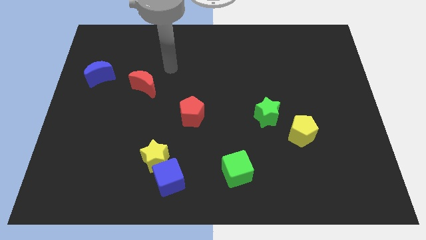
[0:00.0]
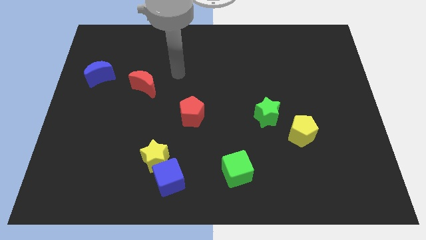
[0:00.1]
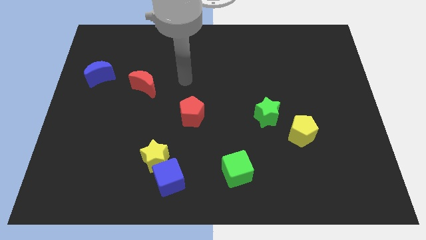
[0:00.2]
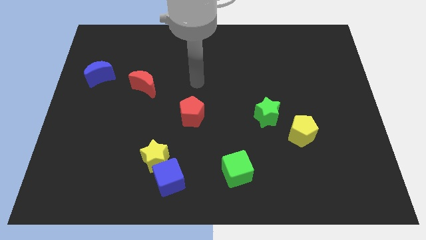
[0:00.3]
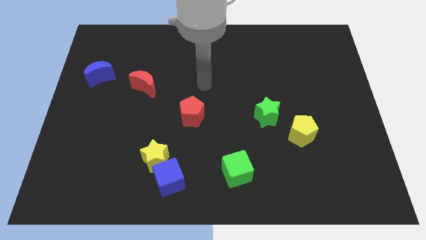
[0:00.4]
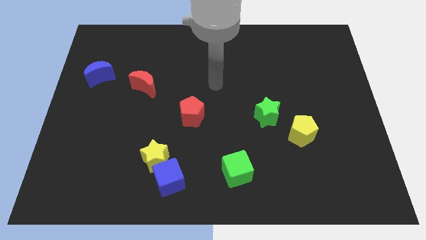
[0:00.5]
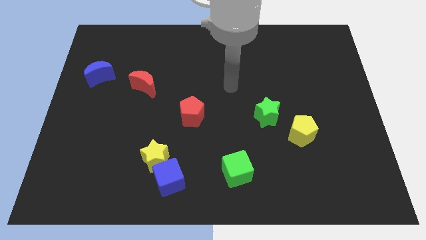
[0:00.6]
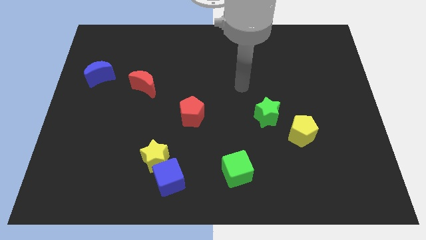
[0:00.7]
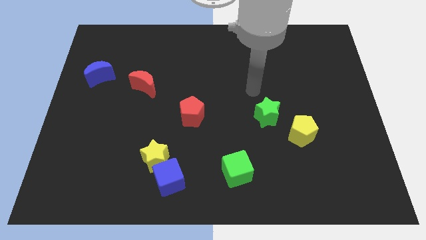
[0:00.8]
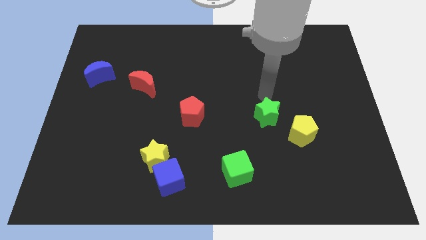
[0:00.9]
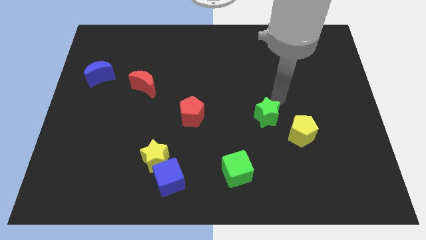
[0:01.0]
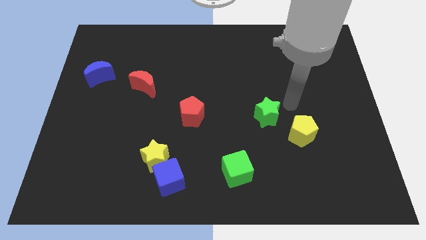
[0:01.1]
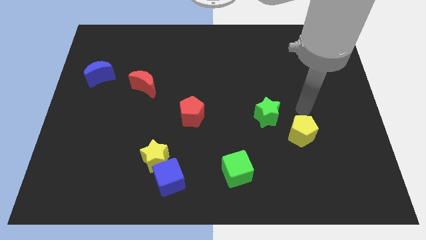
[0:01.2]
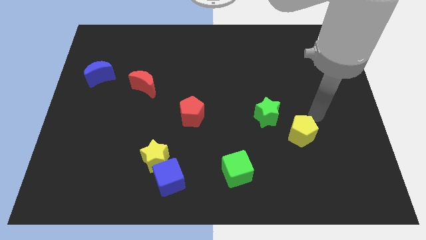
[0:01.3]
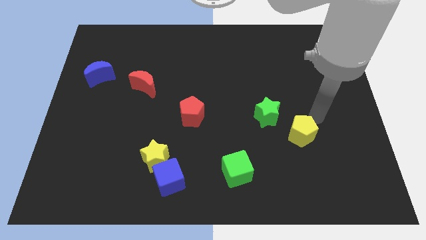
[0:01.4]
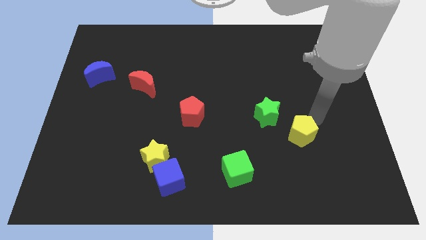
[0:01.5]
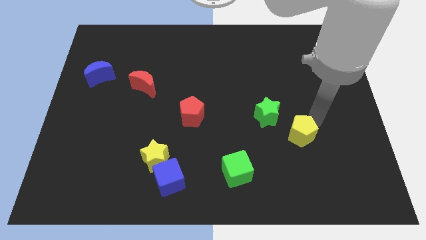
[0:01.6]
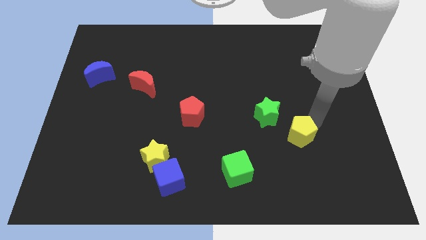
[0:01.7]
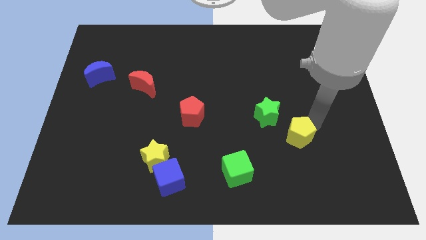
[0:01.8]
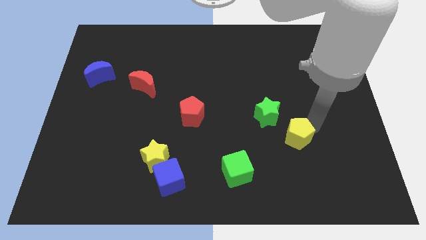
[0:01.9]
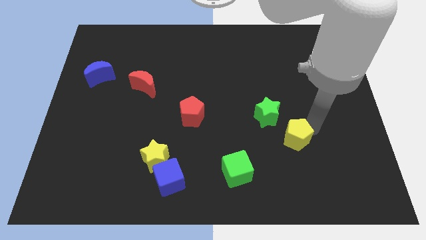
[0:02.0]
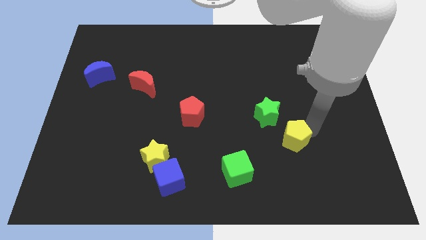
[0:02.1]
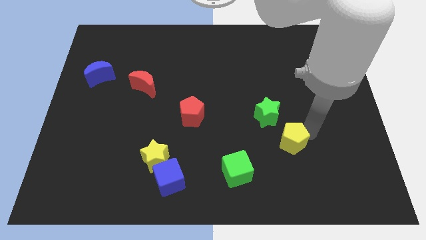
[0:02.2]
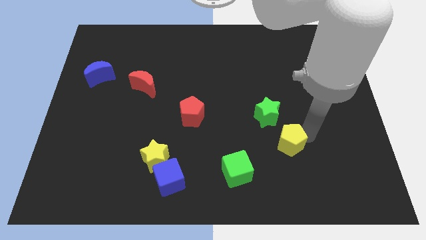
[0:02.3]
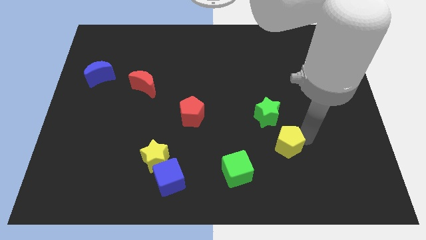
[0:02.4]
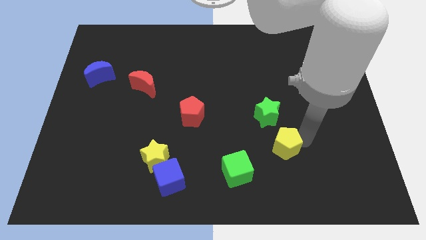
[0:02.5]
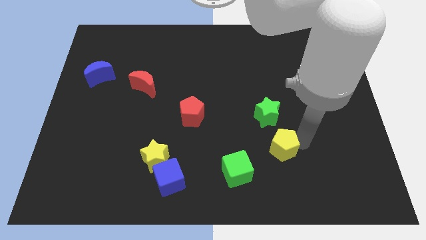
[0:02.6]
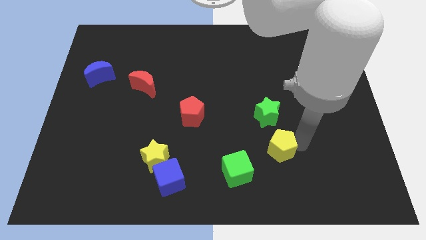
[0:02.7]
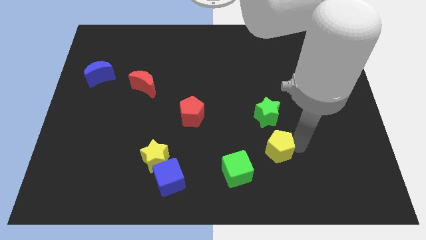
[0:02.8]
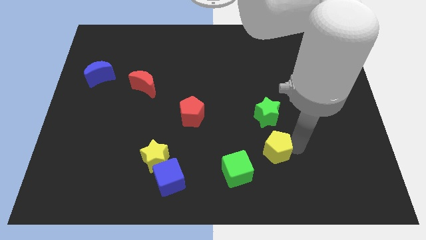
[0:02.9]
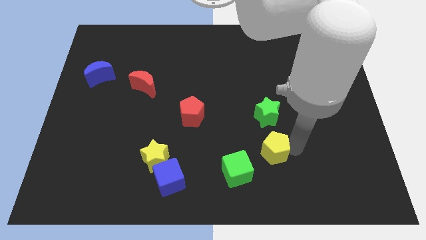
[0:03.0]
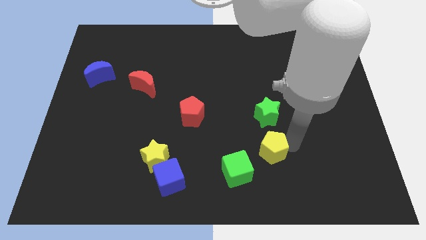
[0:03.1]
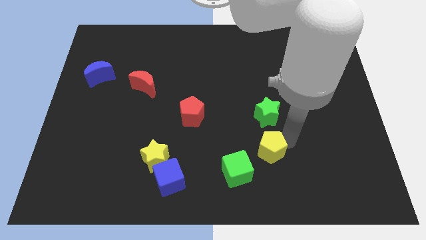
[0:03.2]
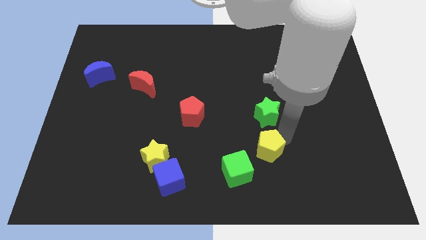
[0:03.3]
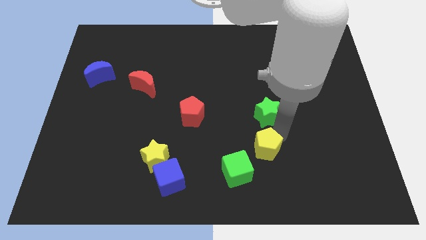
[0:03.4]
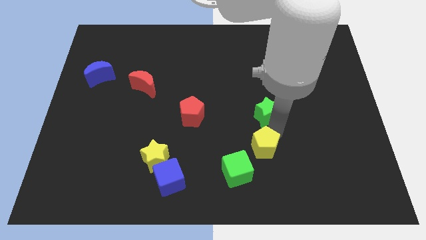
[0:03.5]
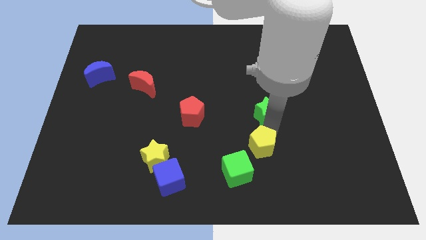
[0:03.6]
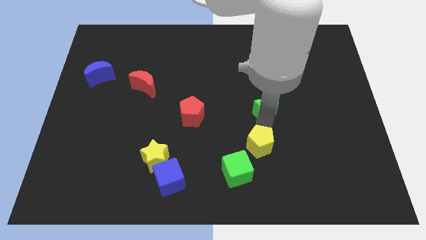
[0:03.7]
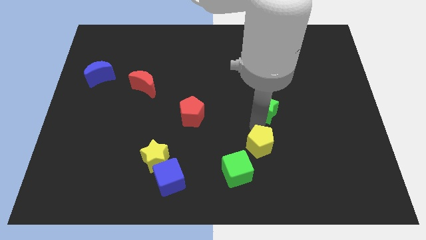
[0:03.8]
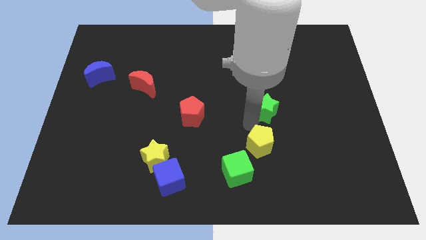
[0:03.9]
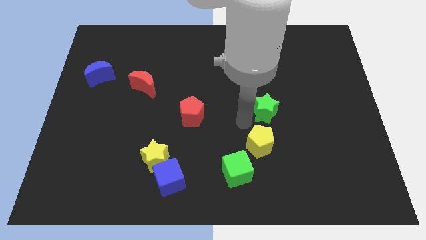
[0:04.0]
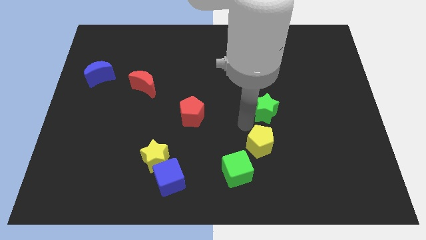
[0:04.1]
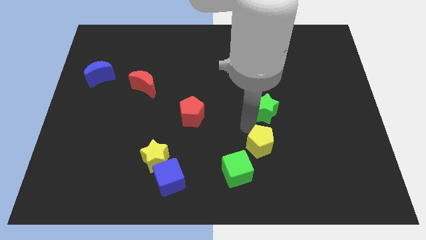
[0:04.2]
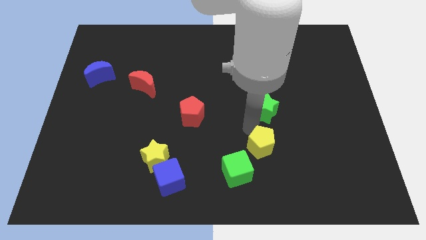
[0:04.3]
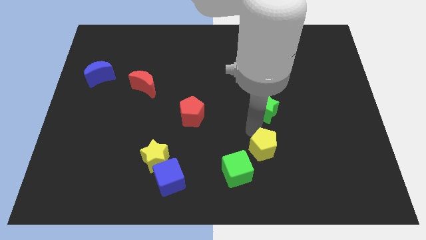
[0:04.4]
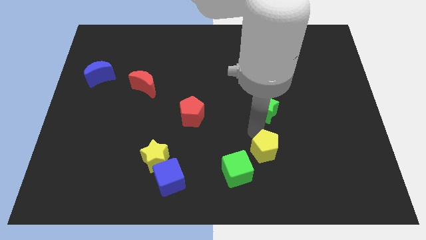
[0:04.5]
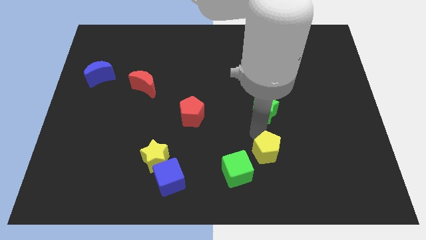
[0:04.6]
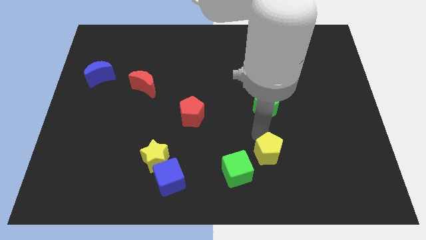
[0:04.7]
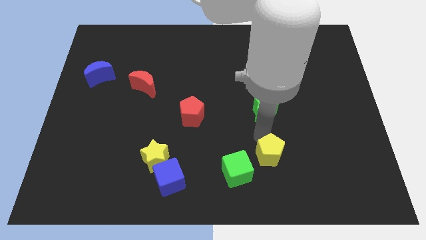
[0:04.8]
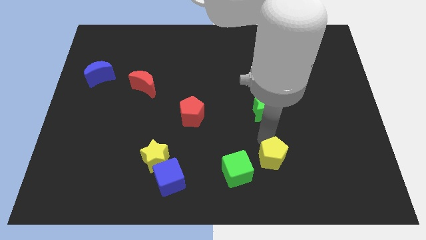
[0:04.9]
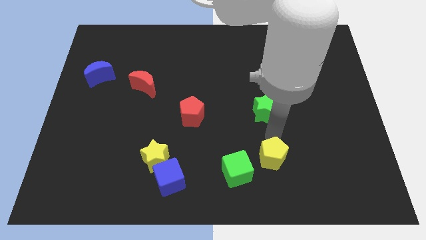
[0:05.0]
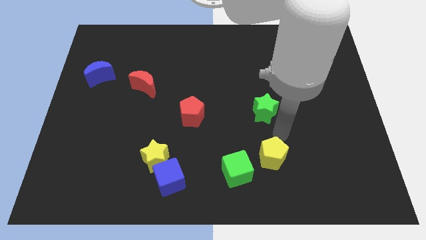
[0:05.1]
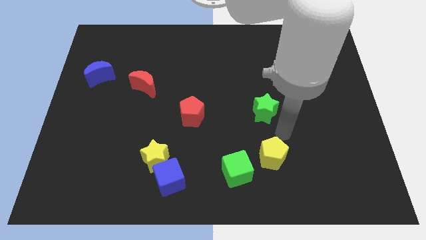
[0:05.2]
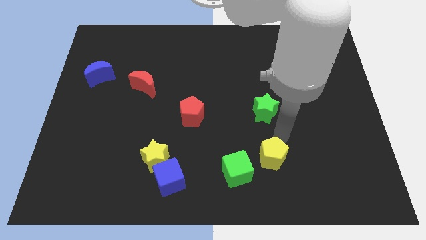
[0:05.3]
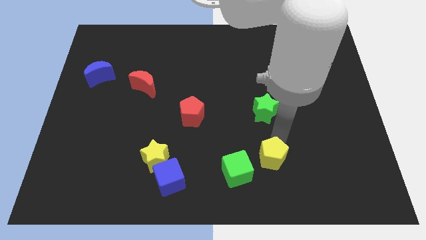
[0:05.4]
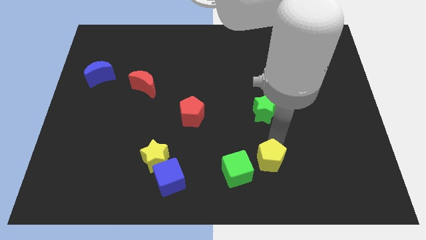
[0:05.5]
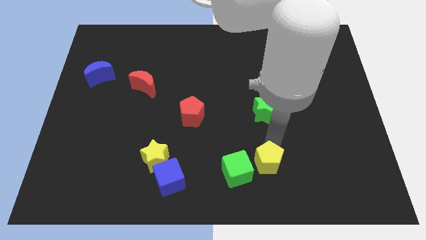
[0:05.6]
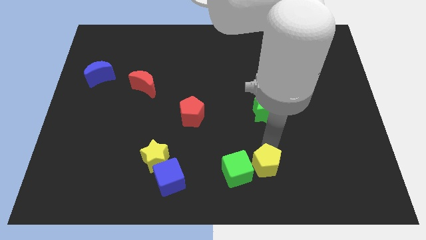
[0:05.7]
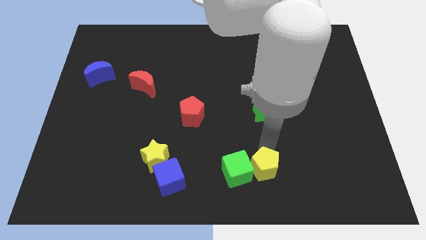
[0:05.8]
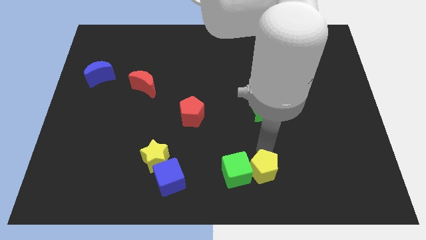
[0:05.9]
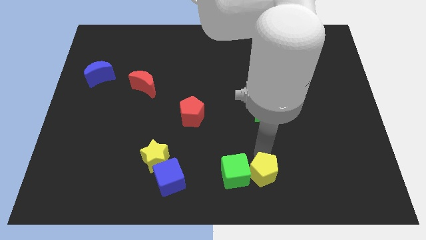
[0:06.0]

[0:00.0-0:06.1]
push the yellow pentagon to the bottom side

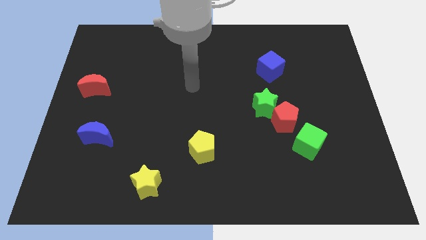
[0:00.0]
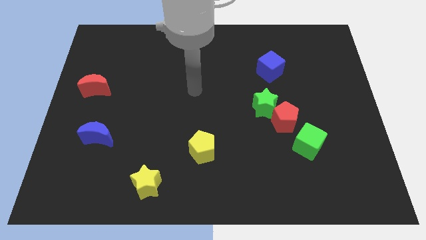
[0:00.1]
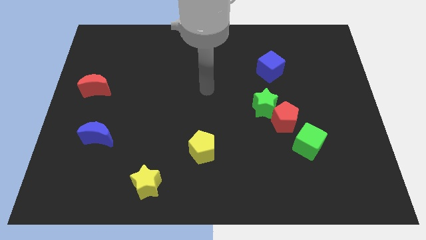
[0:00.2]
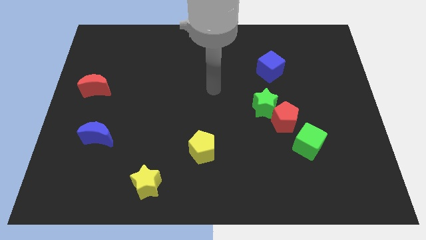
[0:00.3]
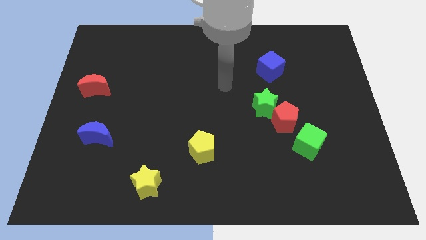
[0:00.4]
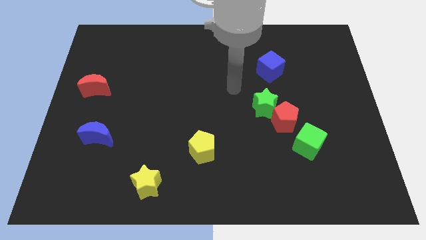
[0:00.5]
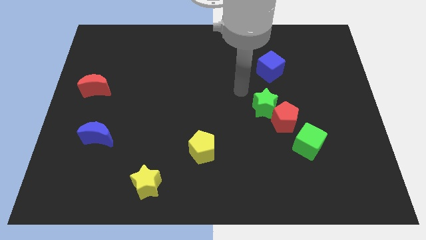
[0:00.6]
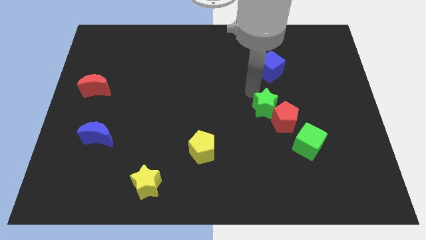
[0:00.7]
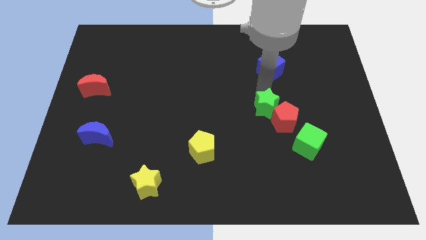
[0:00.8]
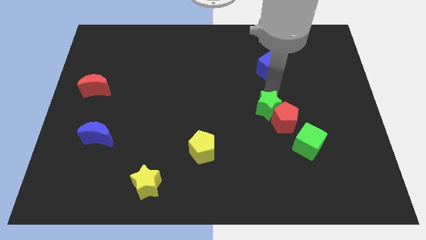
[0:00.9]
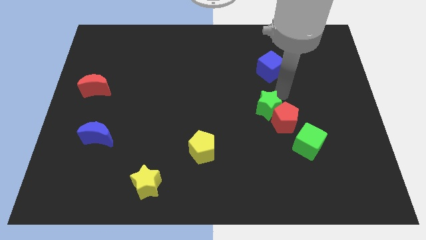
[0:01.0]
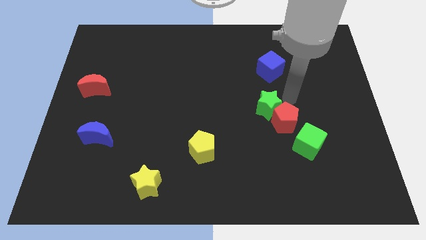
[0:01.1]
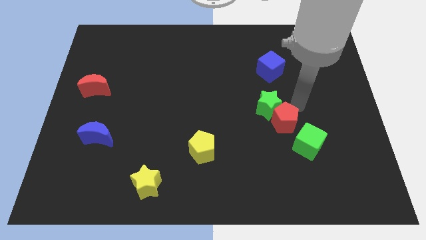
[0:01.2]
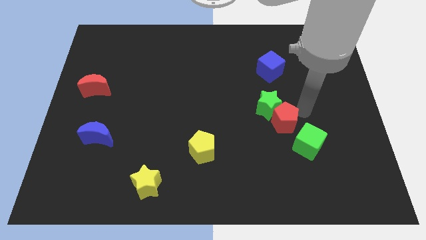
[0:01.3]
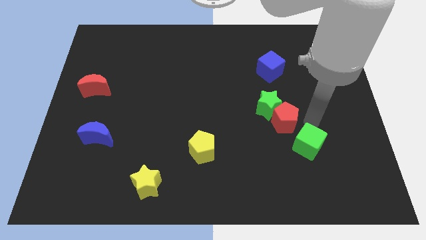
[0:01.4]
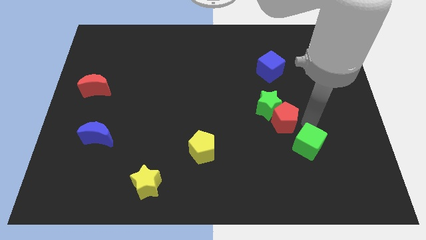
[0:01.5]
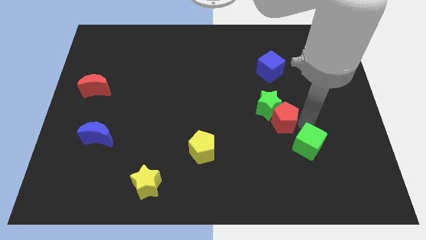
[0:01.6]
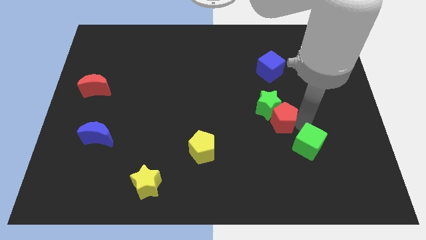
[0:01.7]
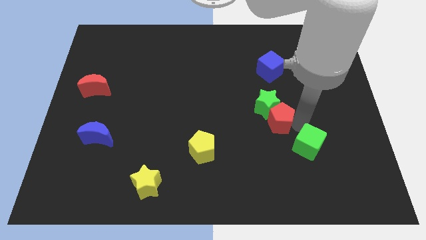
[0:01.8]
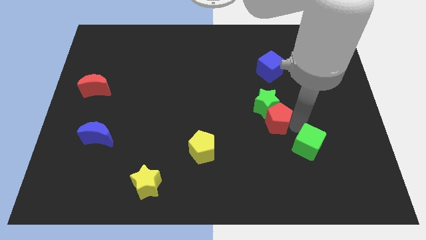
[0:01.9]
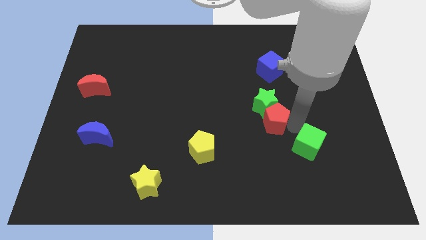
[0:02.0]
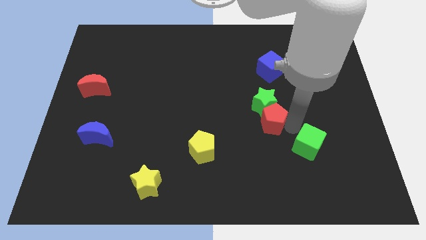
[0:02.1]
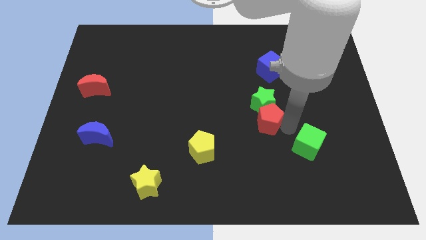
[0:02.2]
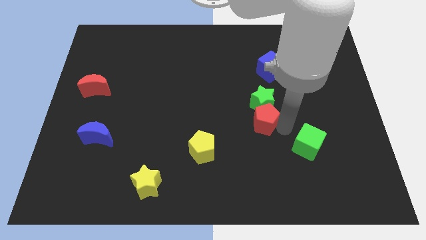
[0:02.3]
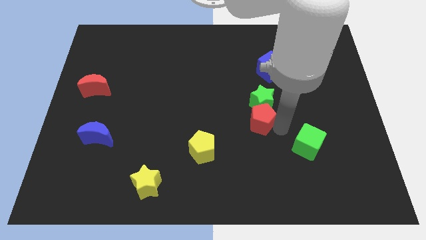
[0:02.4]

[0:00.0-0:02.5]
move the red pentagon to the middle of the board
